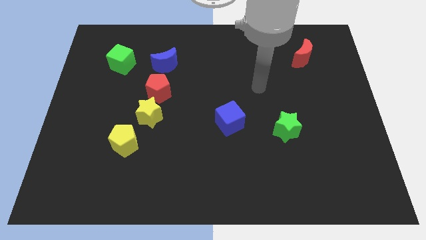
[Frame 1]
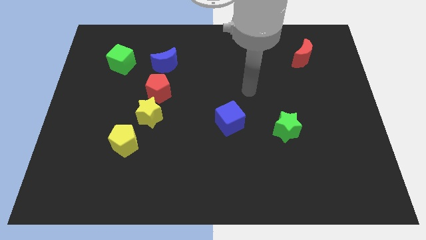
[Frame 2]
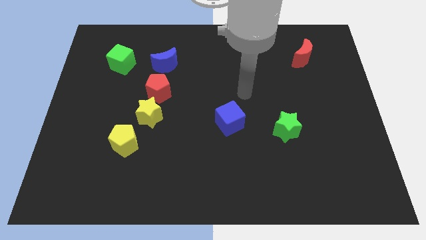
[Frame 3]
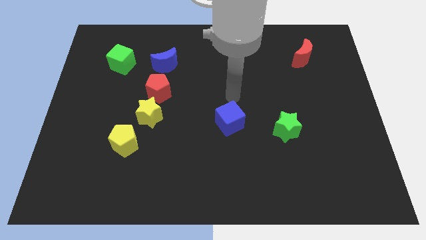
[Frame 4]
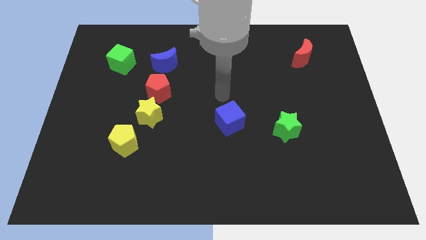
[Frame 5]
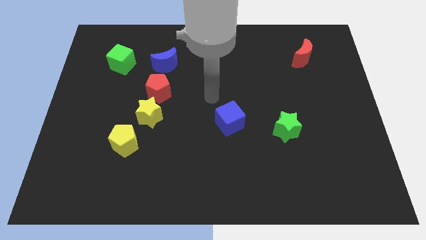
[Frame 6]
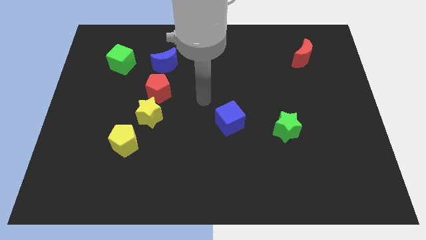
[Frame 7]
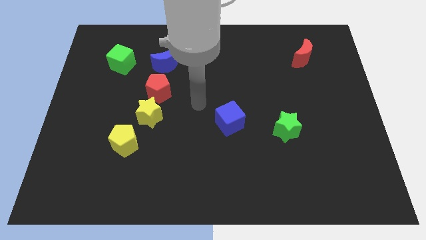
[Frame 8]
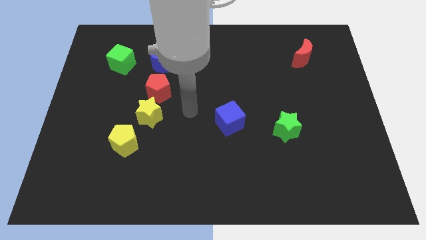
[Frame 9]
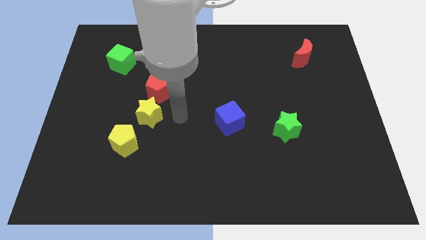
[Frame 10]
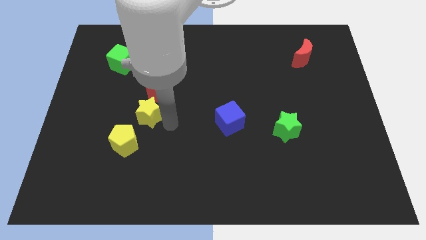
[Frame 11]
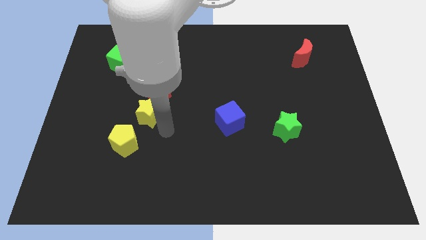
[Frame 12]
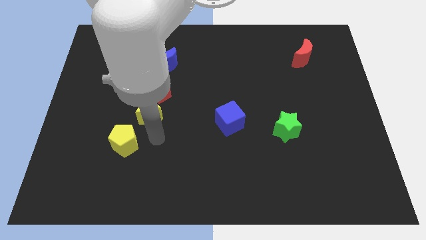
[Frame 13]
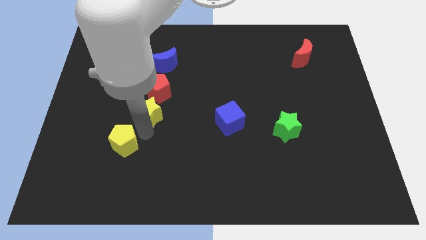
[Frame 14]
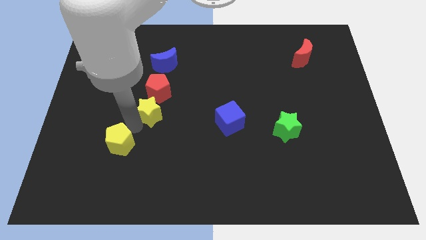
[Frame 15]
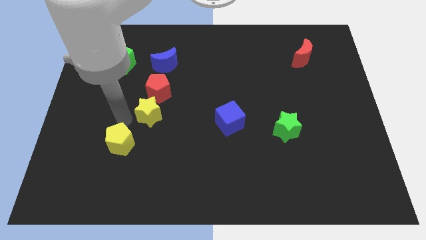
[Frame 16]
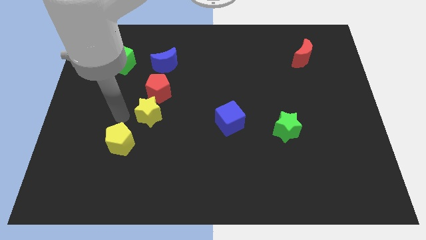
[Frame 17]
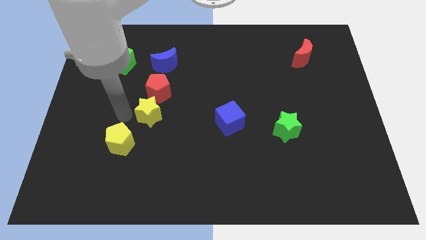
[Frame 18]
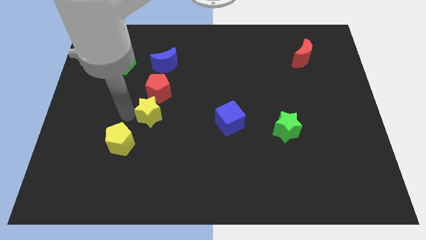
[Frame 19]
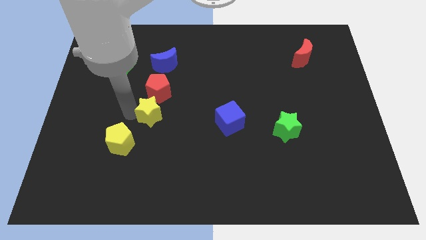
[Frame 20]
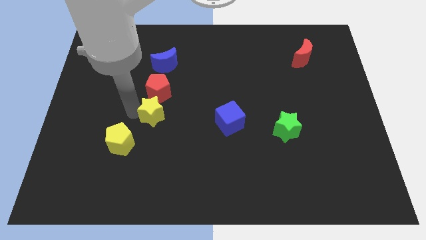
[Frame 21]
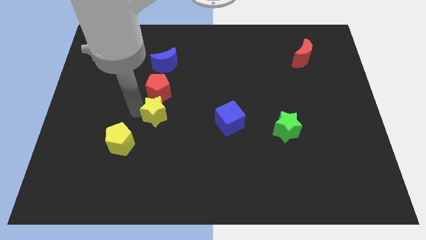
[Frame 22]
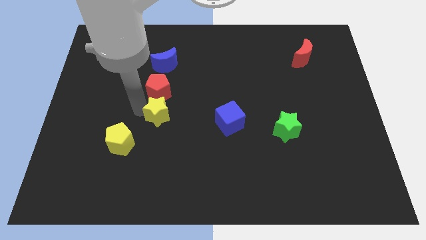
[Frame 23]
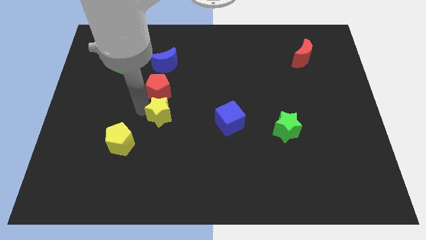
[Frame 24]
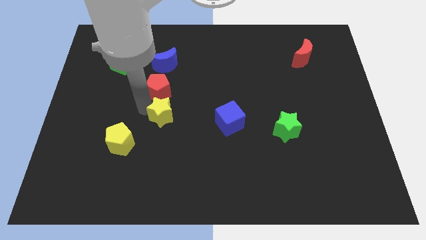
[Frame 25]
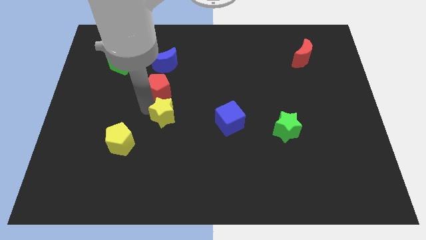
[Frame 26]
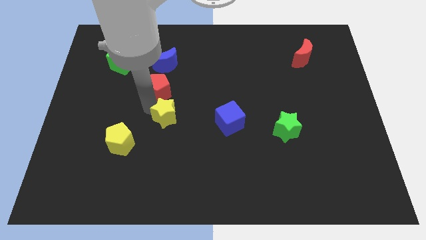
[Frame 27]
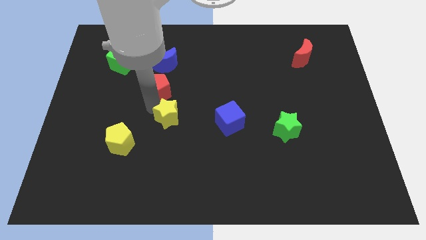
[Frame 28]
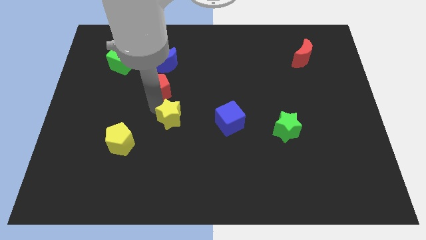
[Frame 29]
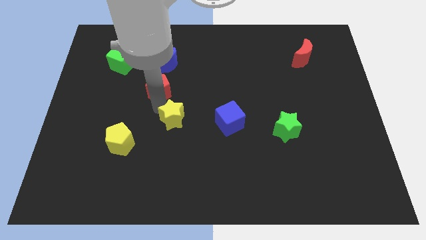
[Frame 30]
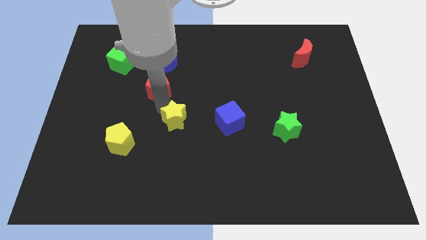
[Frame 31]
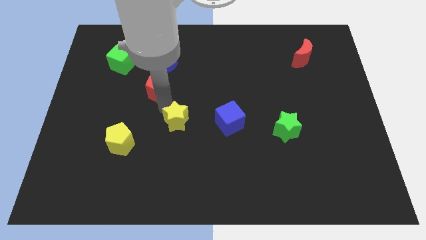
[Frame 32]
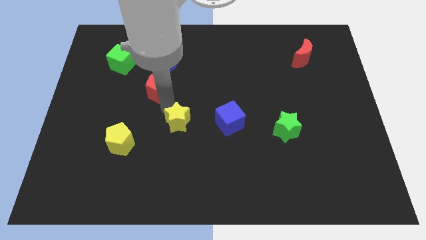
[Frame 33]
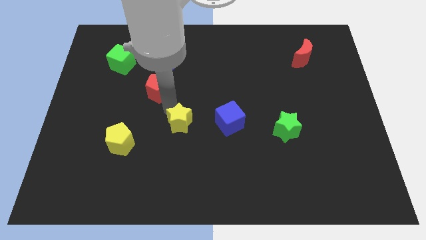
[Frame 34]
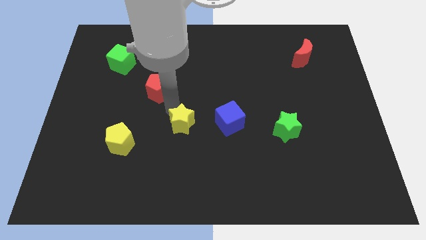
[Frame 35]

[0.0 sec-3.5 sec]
separate the yellow star from the red pentagon and yellow pentagon

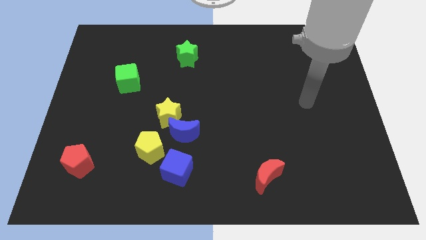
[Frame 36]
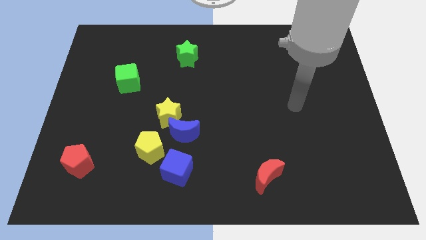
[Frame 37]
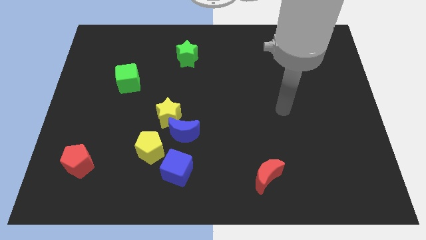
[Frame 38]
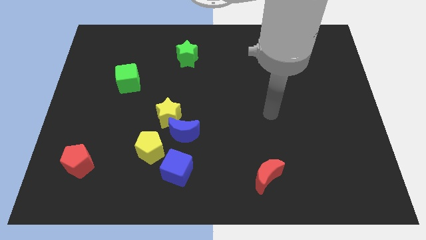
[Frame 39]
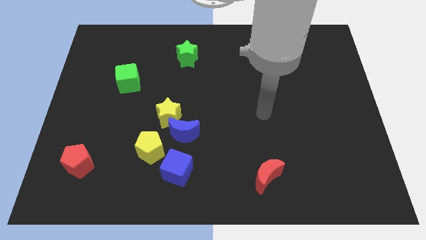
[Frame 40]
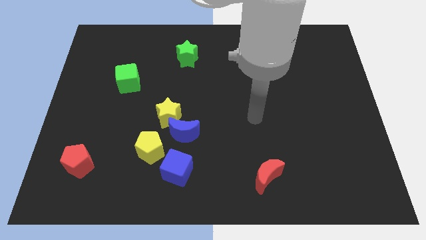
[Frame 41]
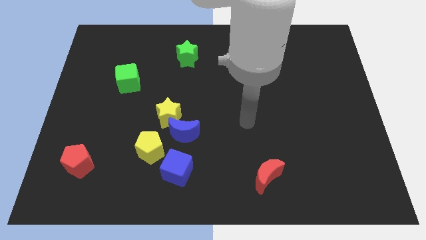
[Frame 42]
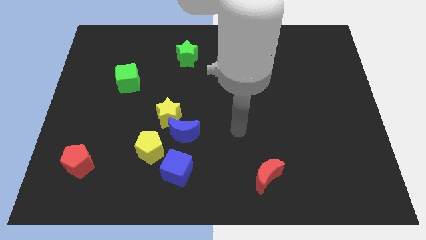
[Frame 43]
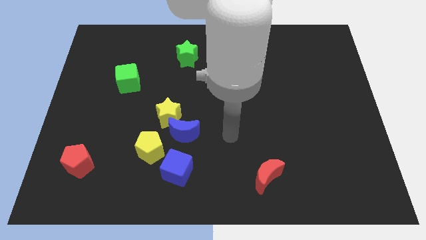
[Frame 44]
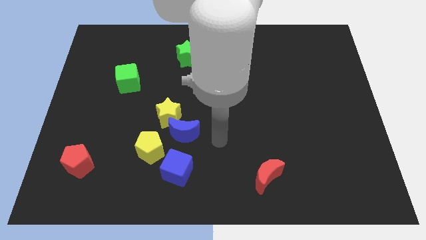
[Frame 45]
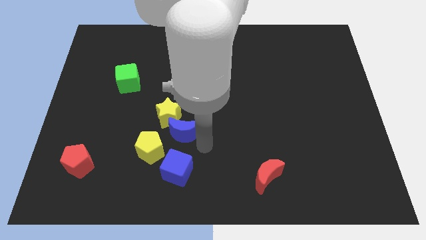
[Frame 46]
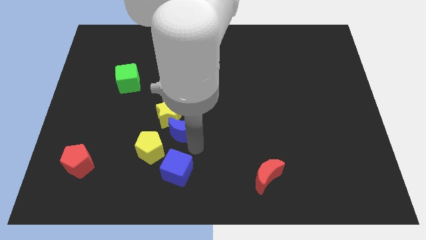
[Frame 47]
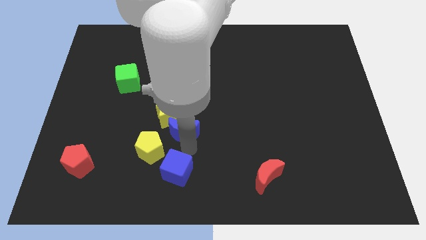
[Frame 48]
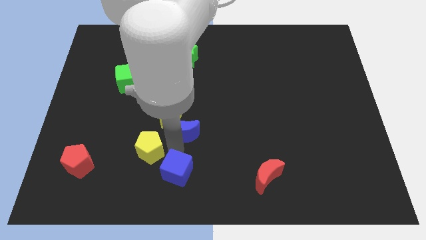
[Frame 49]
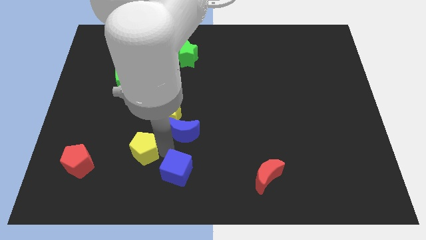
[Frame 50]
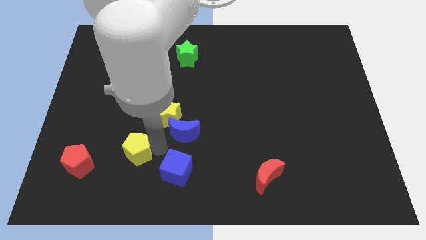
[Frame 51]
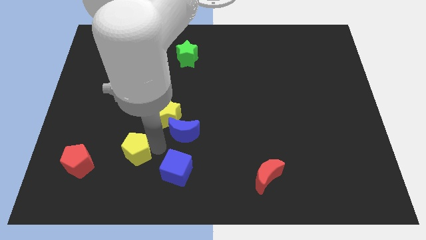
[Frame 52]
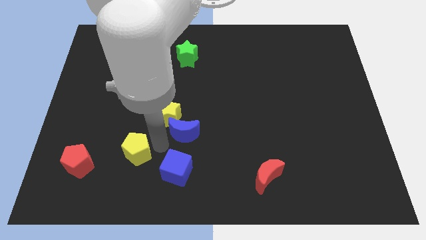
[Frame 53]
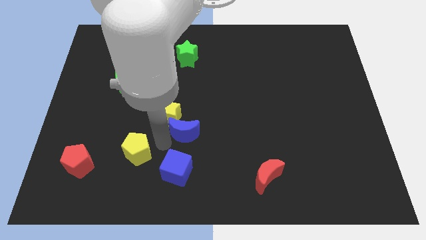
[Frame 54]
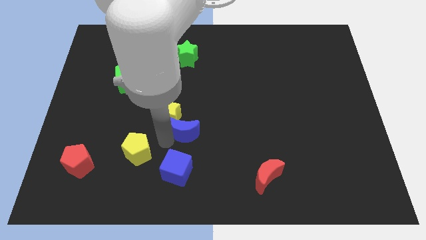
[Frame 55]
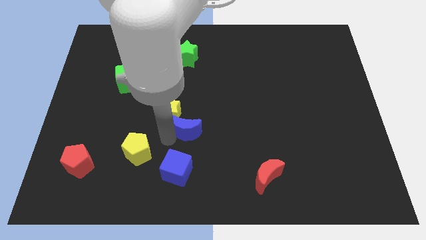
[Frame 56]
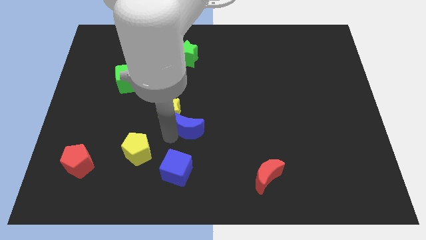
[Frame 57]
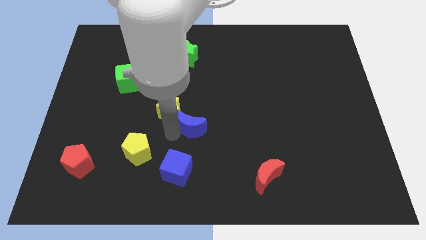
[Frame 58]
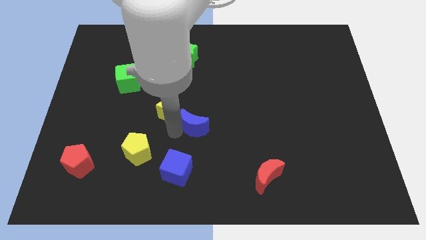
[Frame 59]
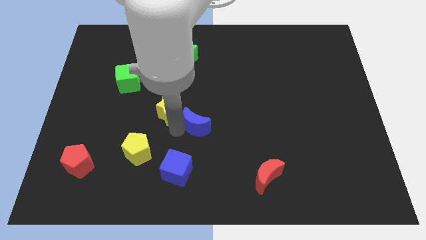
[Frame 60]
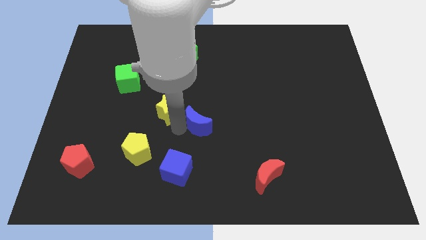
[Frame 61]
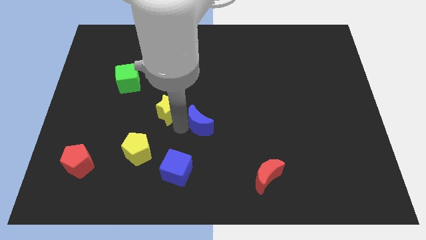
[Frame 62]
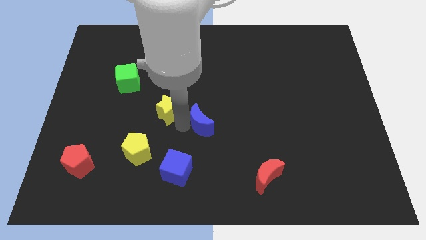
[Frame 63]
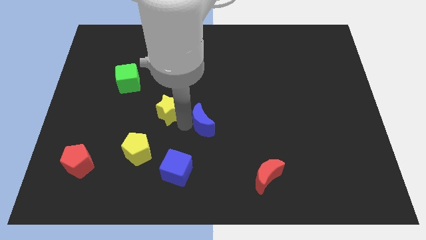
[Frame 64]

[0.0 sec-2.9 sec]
pull the blue moon apart from the yellow star, yellow pentagon, and blue cube

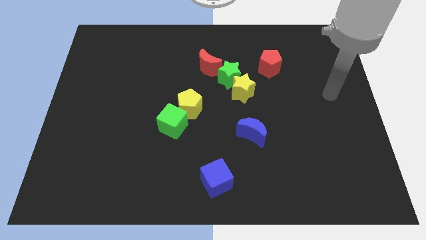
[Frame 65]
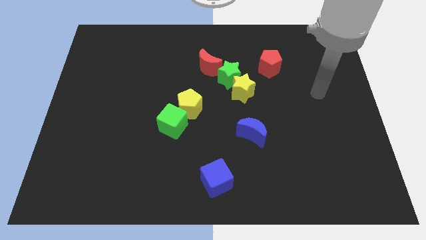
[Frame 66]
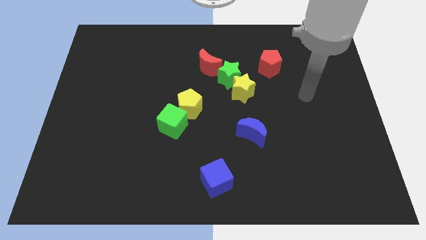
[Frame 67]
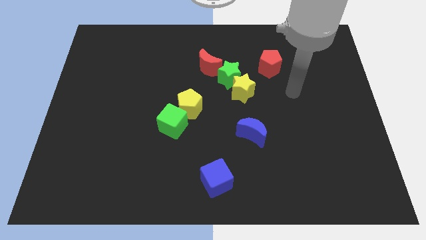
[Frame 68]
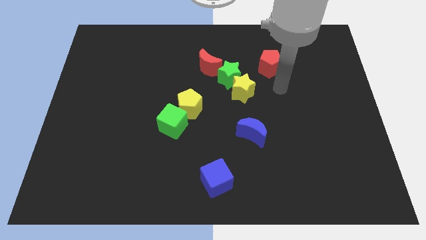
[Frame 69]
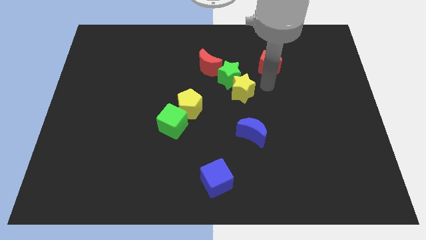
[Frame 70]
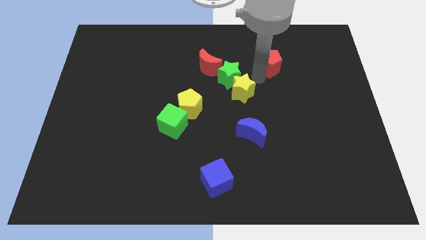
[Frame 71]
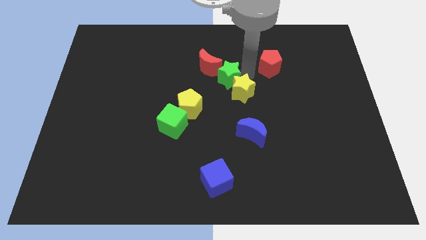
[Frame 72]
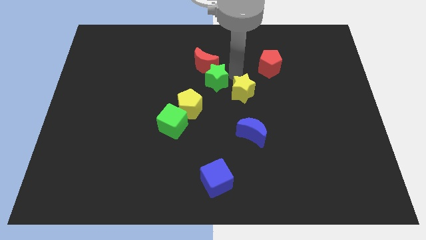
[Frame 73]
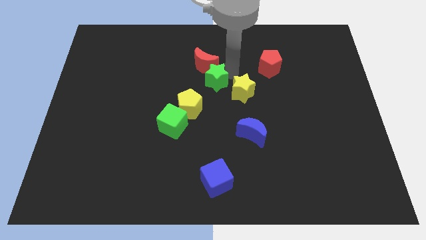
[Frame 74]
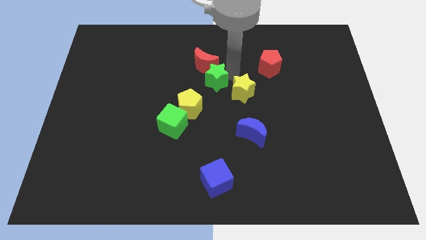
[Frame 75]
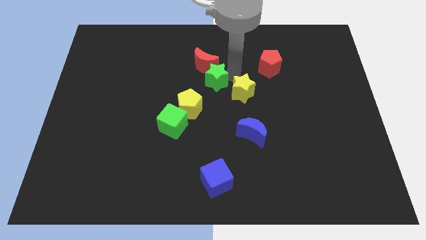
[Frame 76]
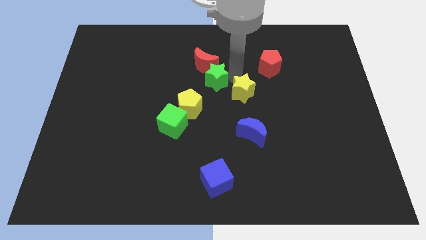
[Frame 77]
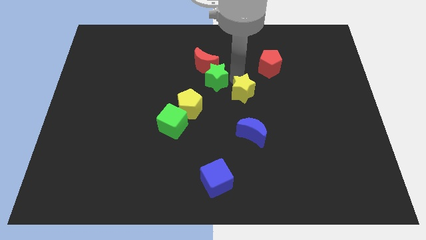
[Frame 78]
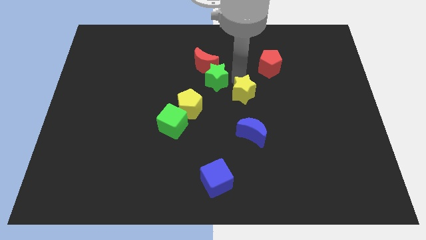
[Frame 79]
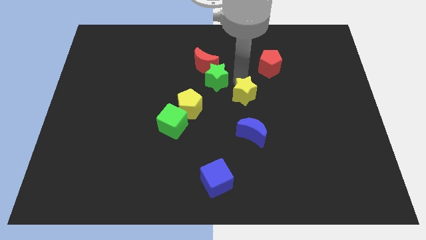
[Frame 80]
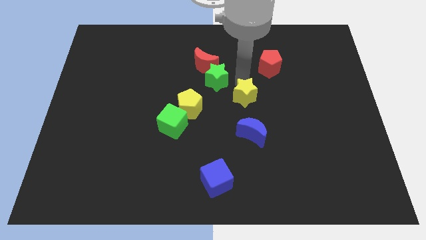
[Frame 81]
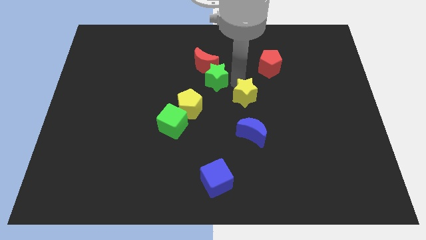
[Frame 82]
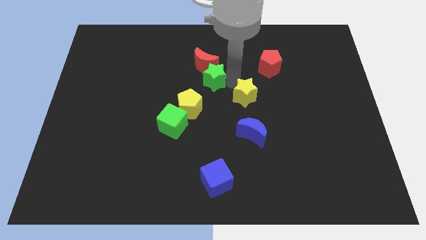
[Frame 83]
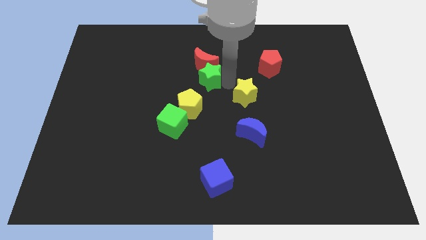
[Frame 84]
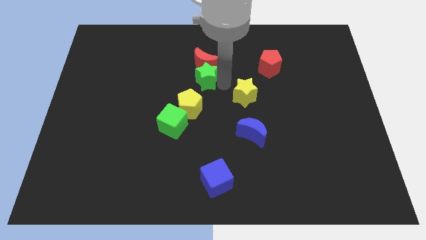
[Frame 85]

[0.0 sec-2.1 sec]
separate the yellow star from the green star

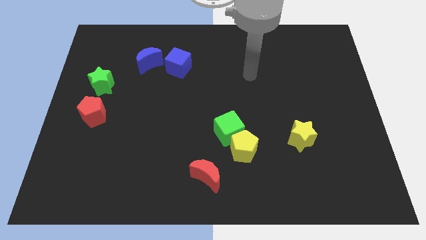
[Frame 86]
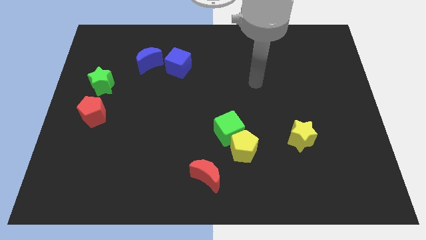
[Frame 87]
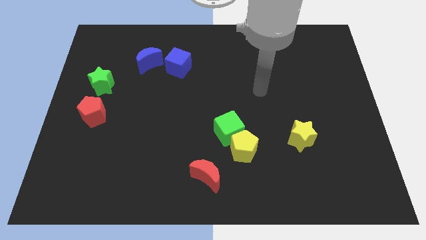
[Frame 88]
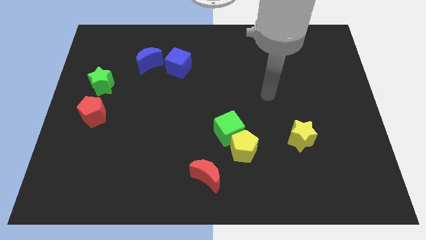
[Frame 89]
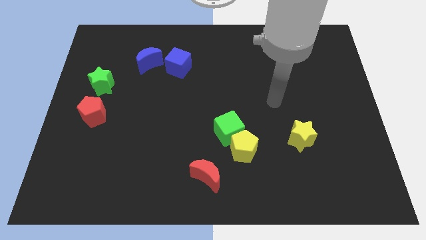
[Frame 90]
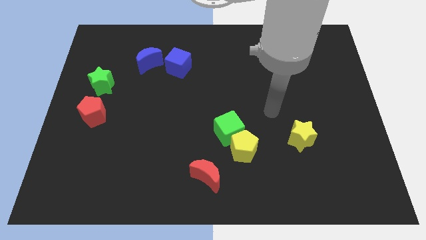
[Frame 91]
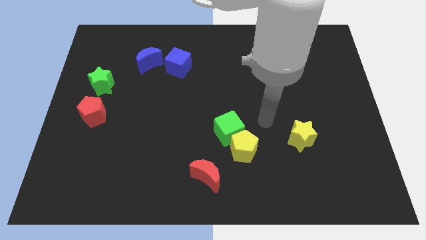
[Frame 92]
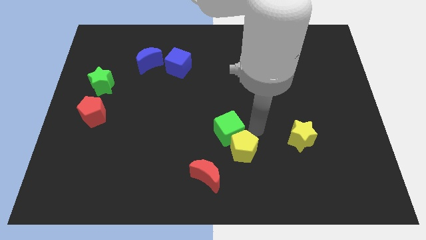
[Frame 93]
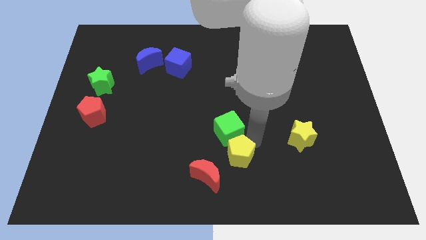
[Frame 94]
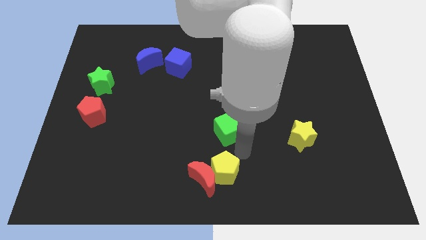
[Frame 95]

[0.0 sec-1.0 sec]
separate the green cube from the yellow pentagon
